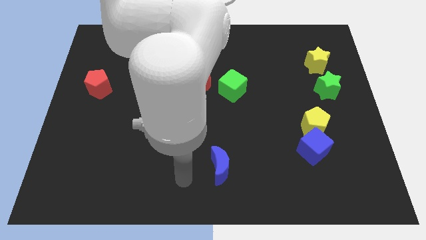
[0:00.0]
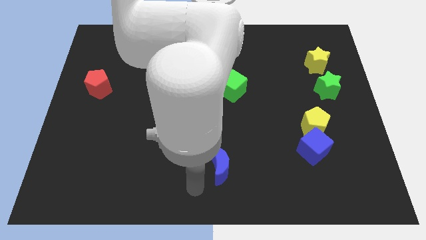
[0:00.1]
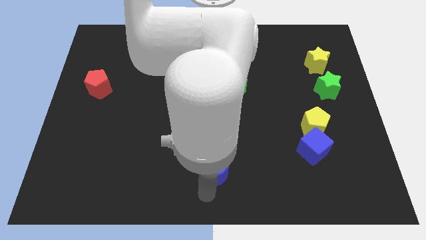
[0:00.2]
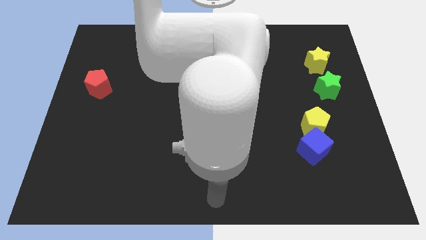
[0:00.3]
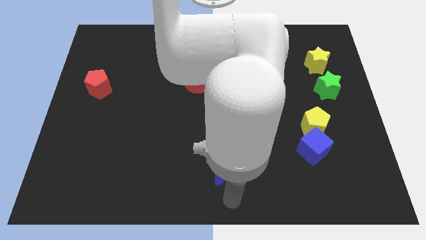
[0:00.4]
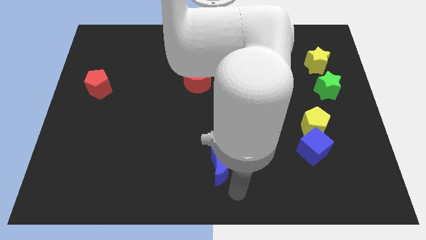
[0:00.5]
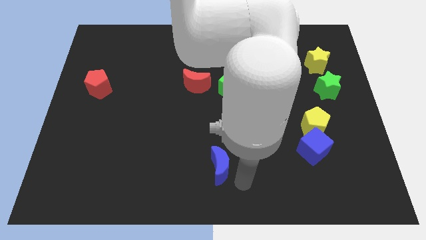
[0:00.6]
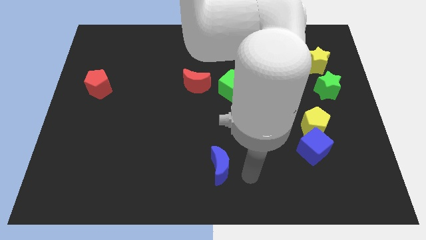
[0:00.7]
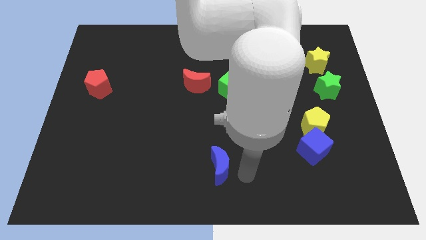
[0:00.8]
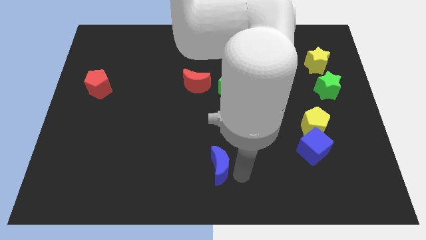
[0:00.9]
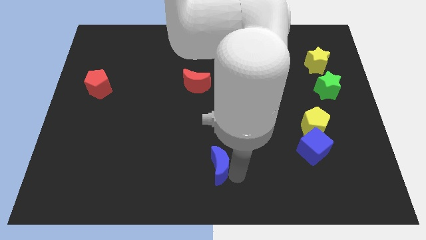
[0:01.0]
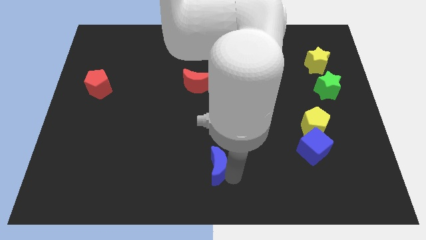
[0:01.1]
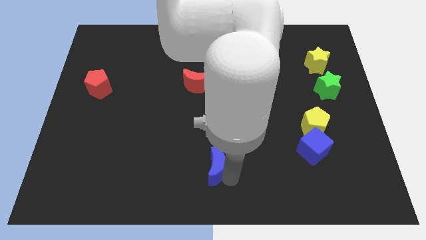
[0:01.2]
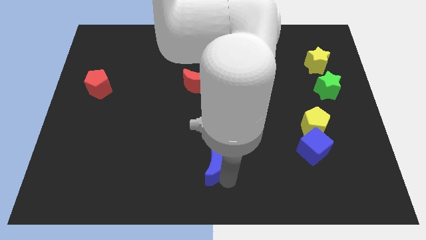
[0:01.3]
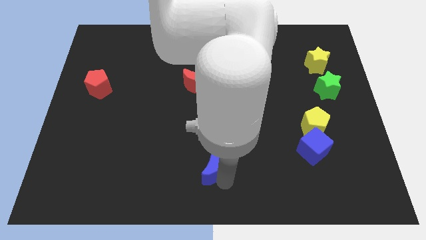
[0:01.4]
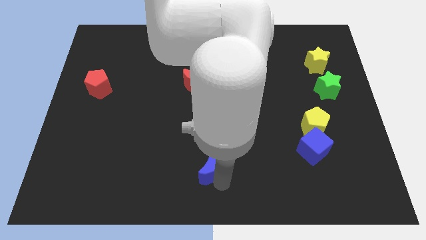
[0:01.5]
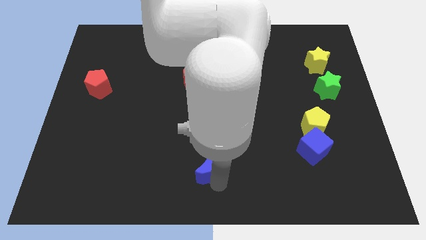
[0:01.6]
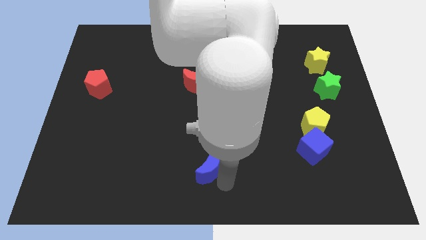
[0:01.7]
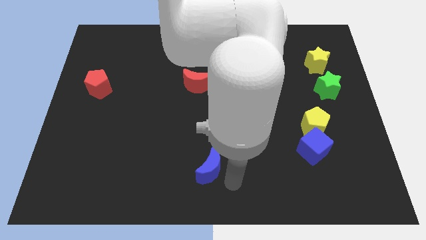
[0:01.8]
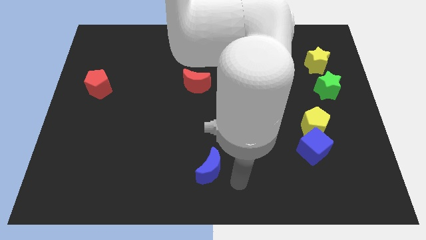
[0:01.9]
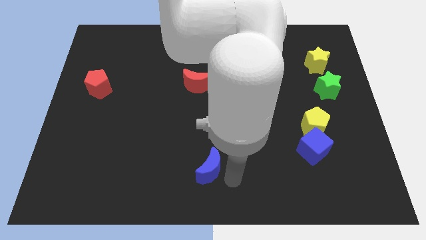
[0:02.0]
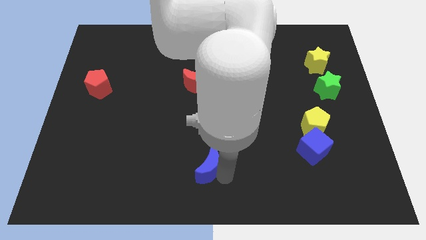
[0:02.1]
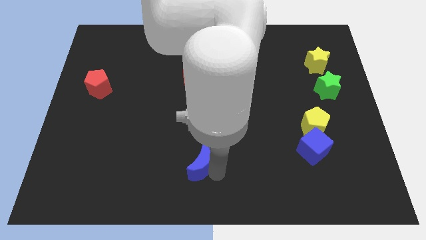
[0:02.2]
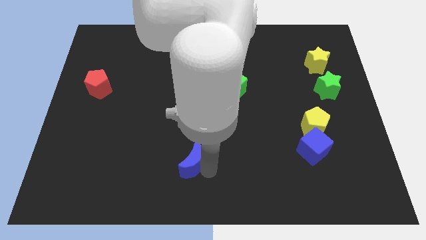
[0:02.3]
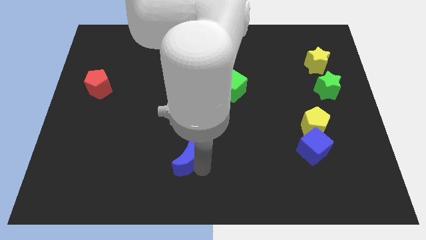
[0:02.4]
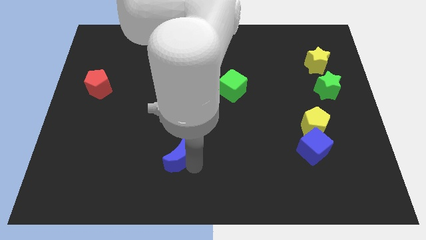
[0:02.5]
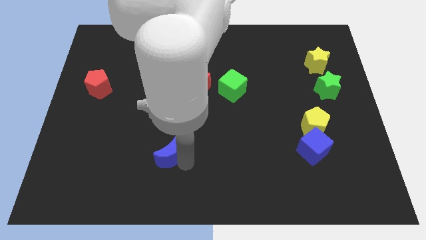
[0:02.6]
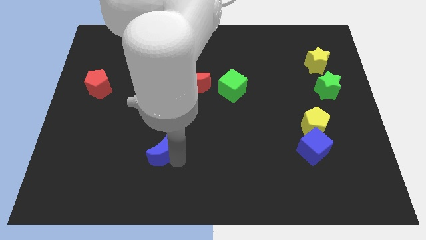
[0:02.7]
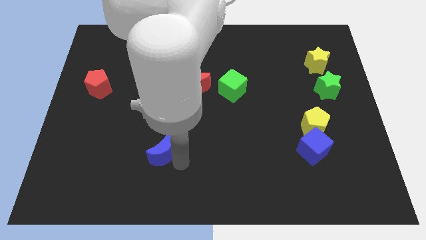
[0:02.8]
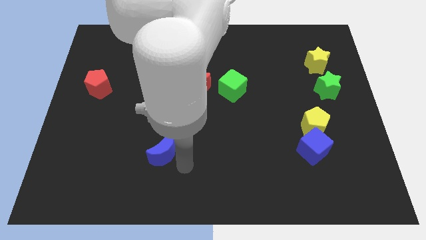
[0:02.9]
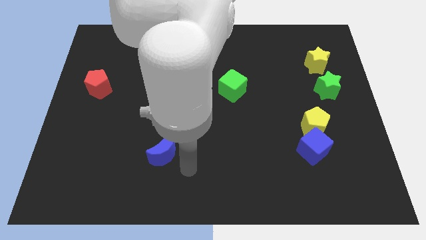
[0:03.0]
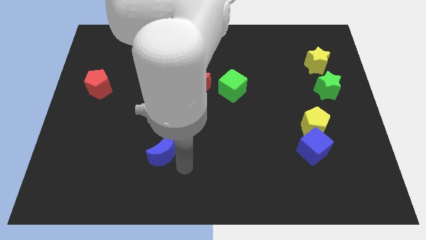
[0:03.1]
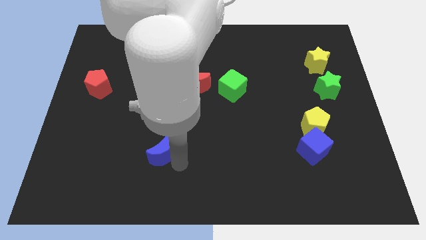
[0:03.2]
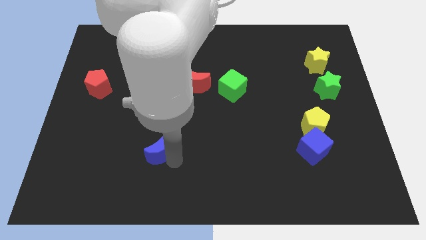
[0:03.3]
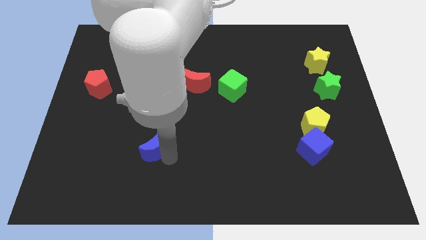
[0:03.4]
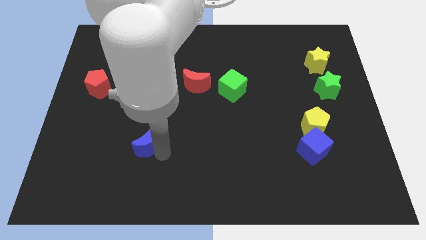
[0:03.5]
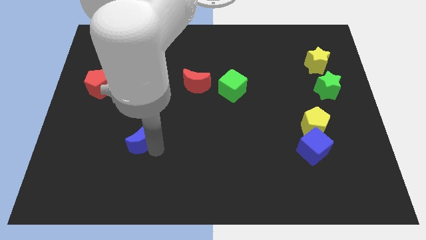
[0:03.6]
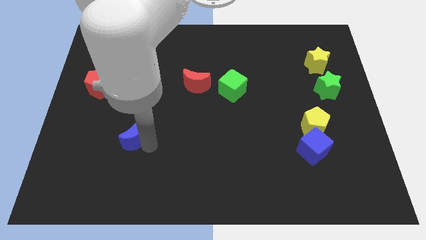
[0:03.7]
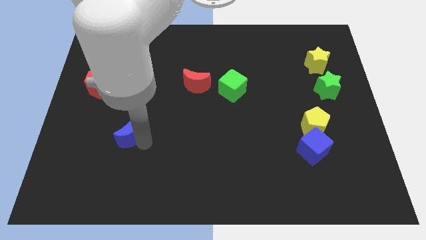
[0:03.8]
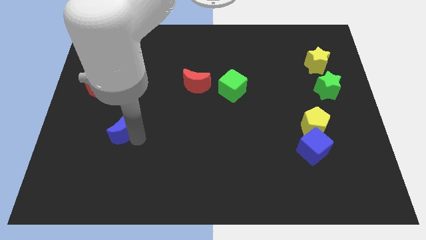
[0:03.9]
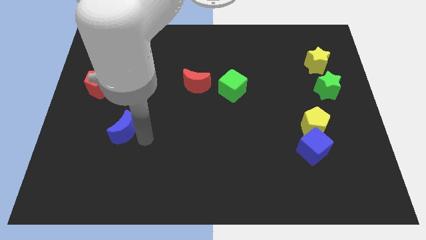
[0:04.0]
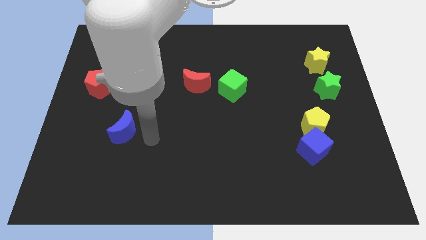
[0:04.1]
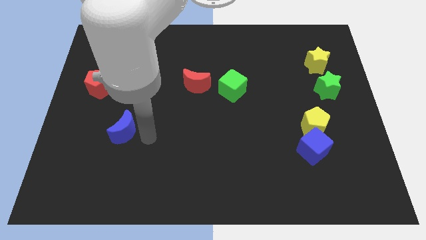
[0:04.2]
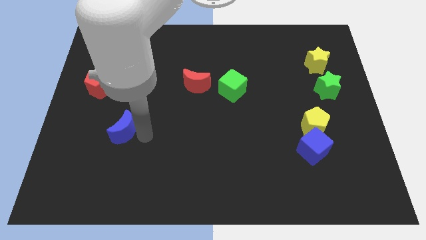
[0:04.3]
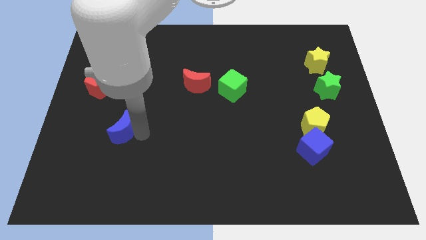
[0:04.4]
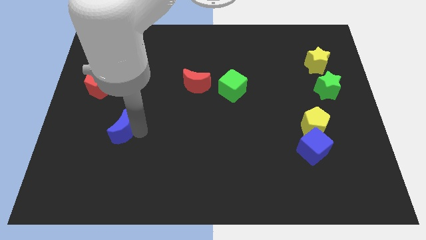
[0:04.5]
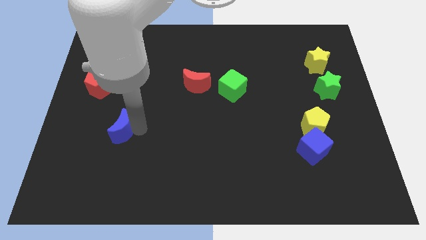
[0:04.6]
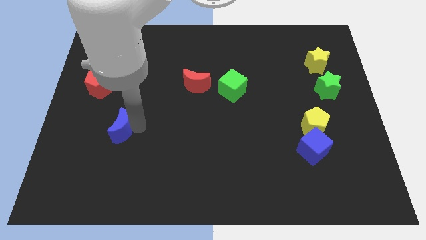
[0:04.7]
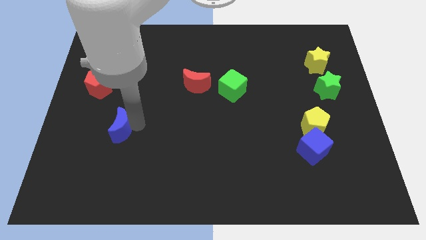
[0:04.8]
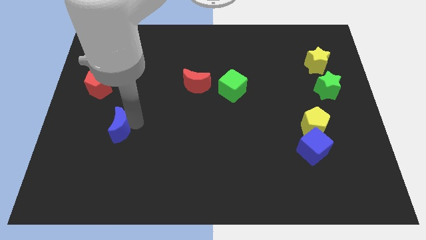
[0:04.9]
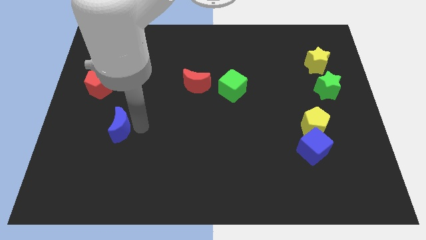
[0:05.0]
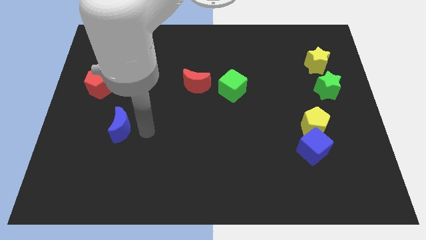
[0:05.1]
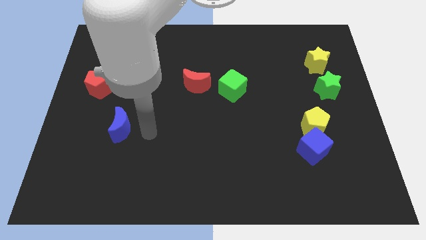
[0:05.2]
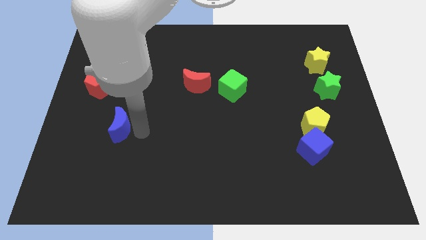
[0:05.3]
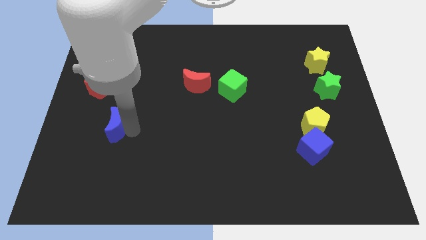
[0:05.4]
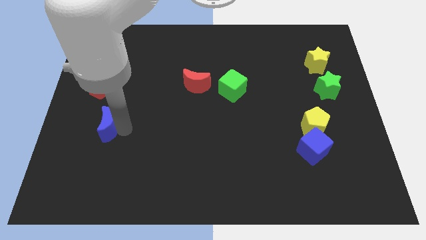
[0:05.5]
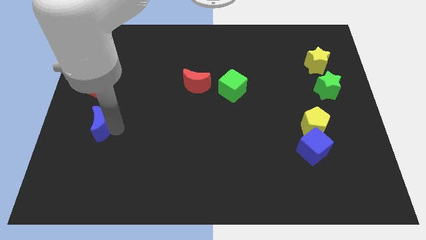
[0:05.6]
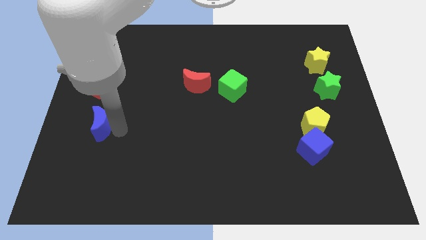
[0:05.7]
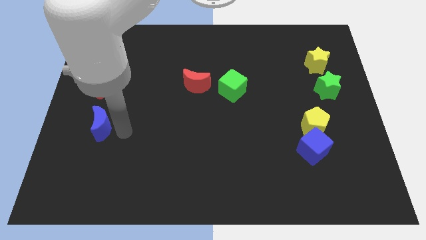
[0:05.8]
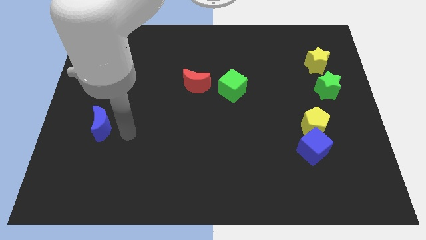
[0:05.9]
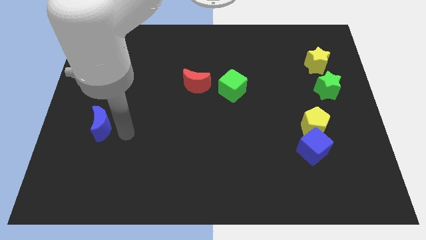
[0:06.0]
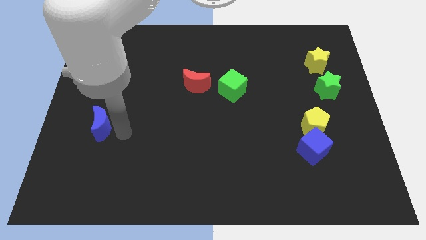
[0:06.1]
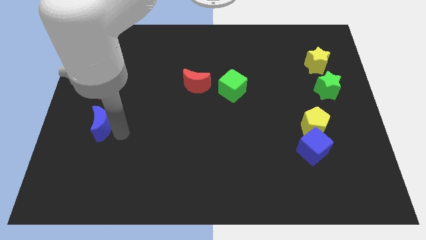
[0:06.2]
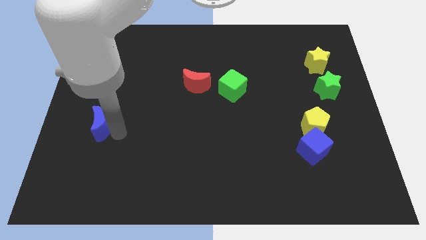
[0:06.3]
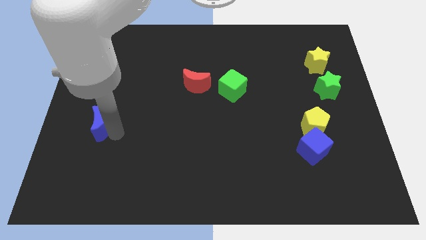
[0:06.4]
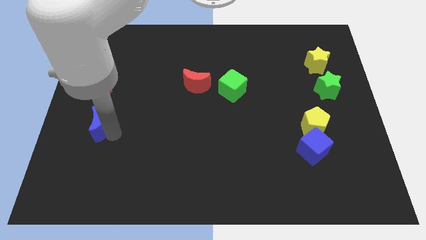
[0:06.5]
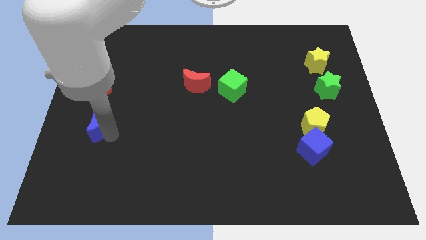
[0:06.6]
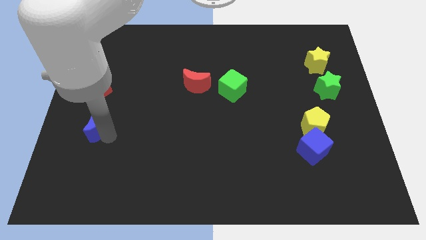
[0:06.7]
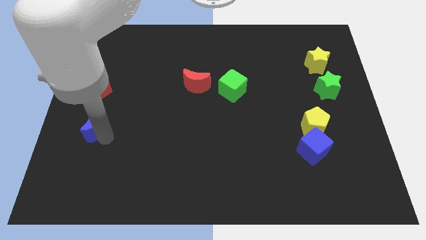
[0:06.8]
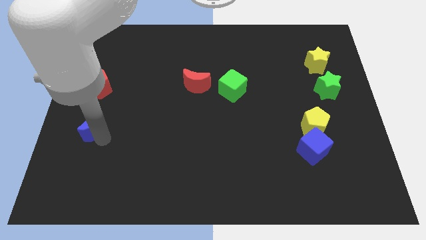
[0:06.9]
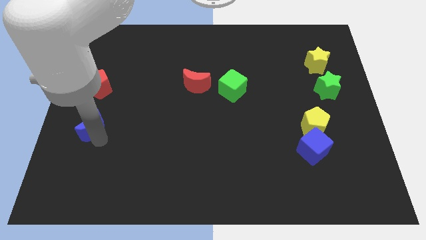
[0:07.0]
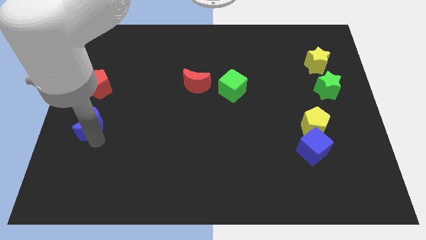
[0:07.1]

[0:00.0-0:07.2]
push the blue moon to the left side of the board
